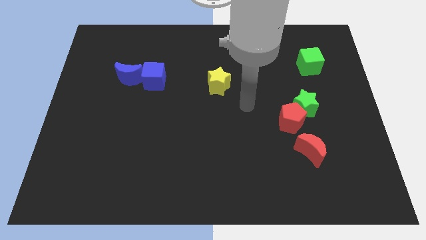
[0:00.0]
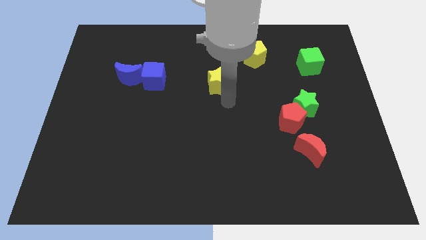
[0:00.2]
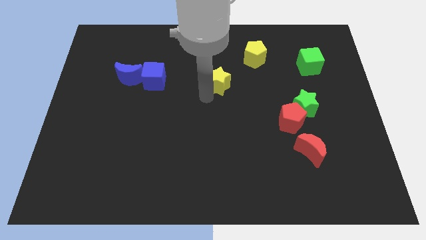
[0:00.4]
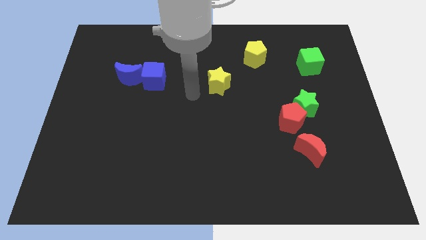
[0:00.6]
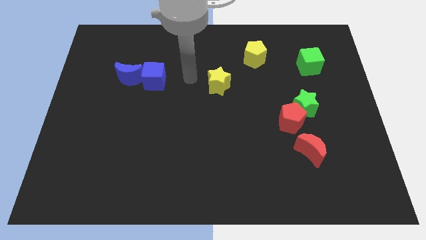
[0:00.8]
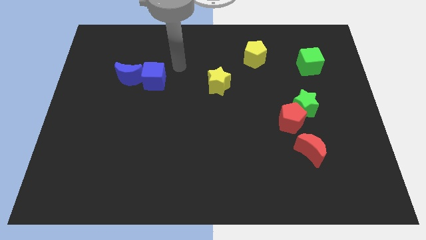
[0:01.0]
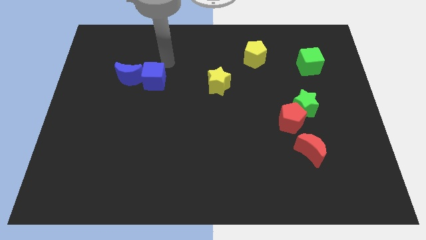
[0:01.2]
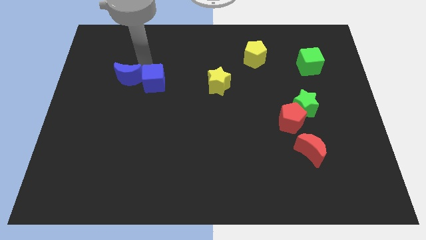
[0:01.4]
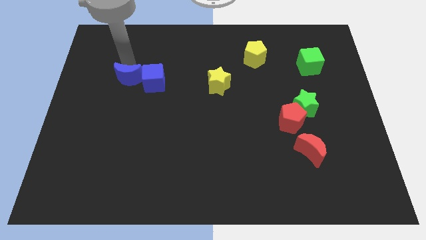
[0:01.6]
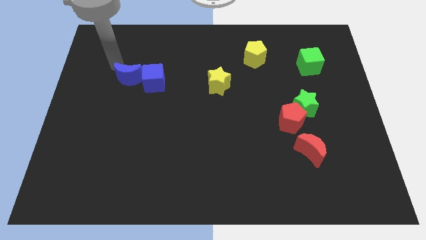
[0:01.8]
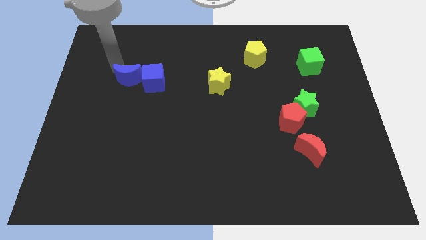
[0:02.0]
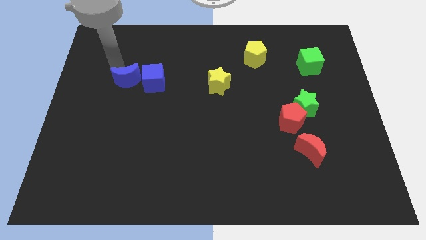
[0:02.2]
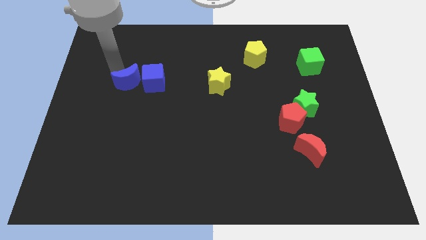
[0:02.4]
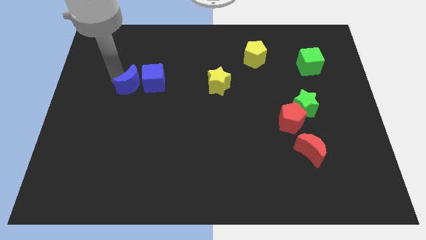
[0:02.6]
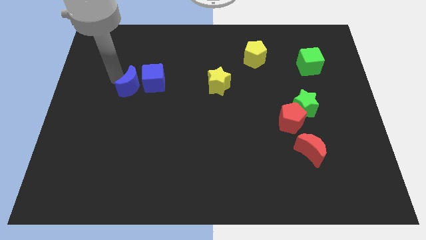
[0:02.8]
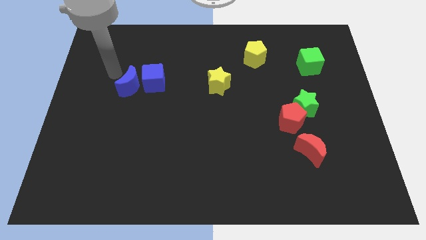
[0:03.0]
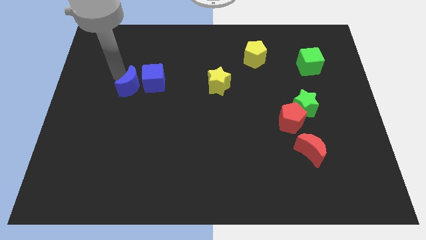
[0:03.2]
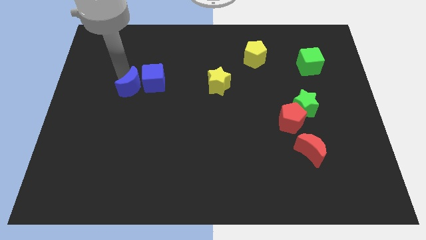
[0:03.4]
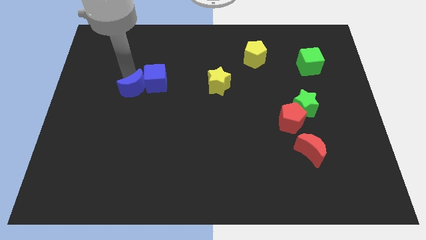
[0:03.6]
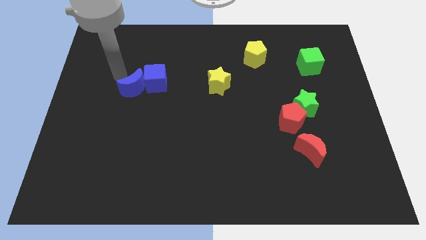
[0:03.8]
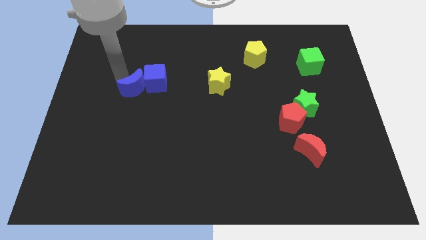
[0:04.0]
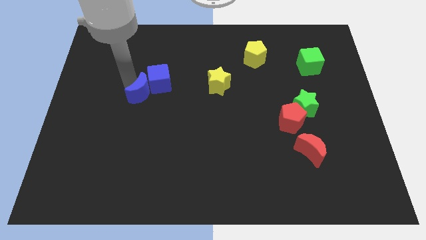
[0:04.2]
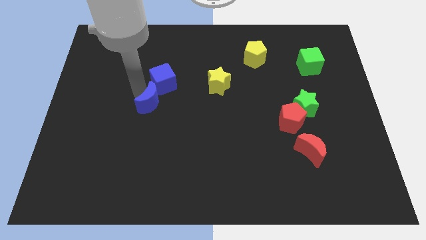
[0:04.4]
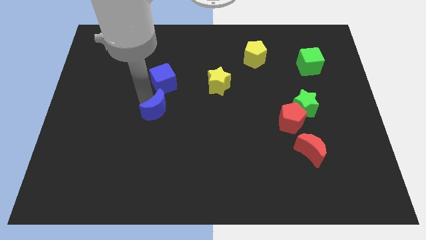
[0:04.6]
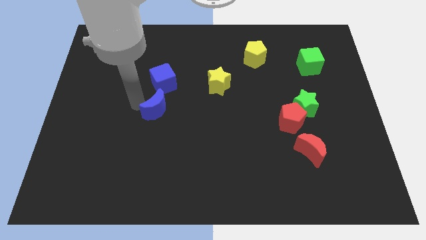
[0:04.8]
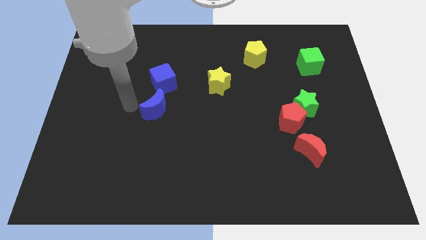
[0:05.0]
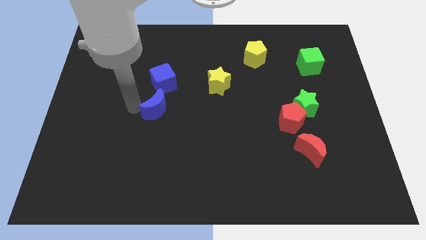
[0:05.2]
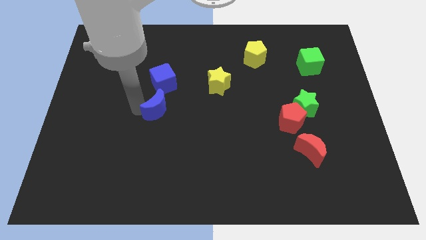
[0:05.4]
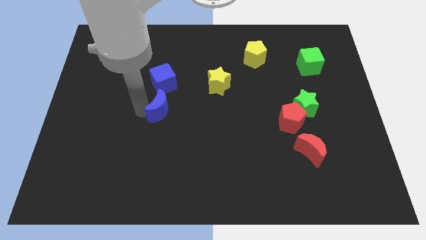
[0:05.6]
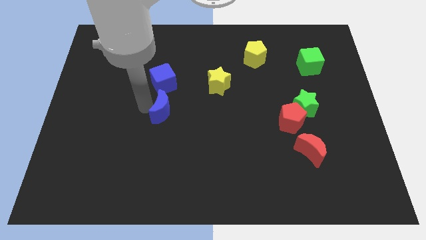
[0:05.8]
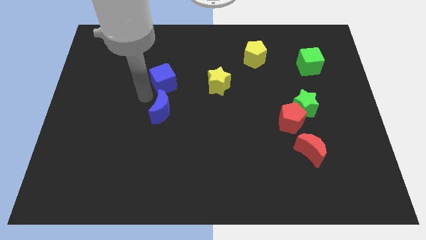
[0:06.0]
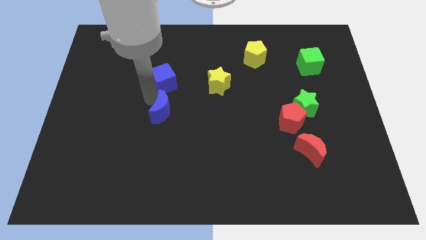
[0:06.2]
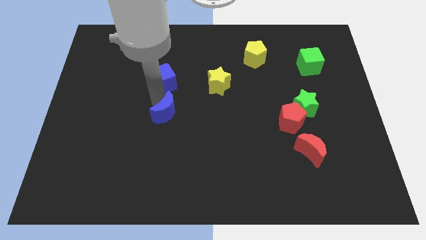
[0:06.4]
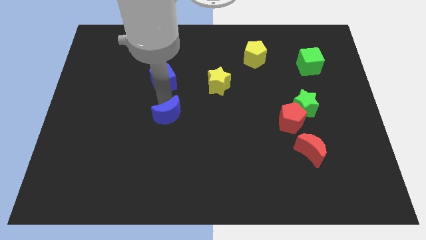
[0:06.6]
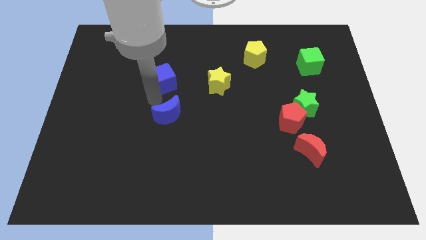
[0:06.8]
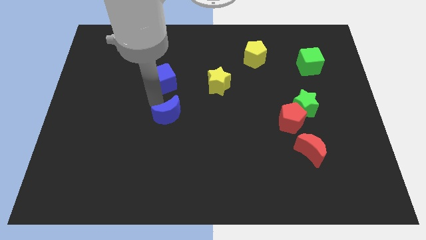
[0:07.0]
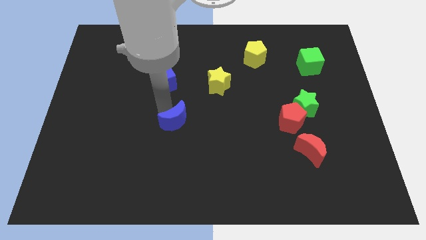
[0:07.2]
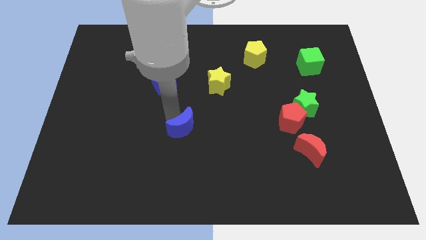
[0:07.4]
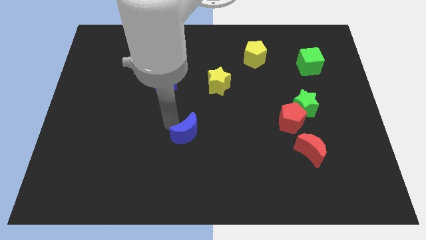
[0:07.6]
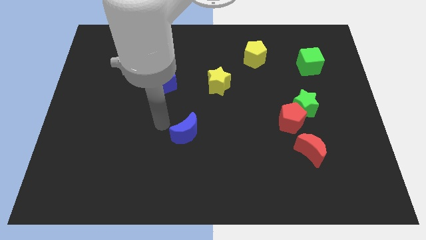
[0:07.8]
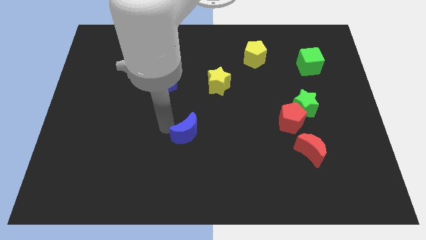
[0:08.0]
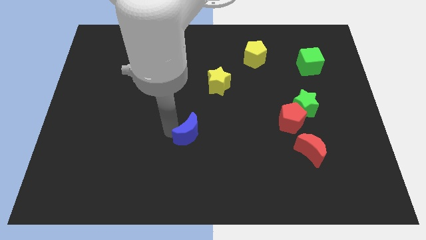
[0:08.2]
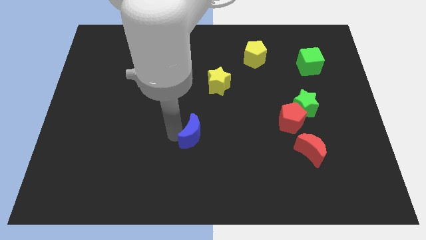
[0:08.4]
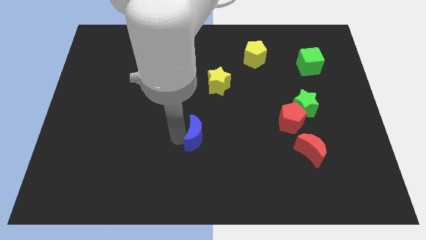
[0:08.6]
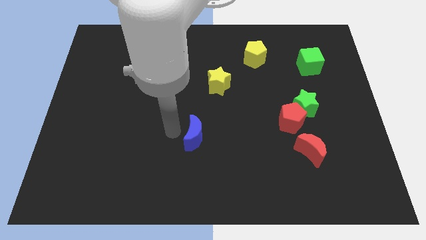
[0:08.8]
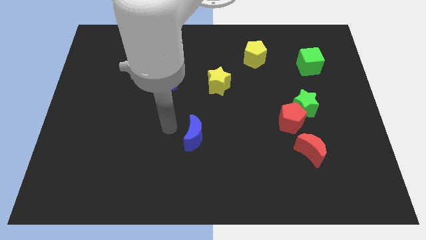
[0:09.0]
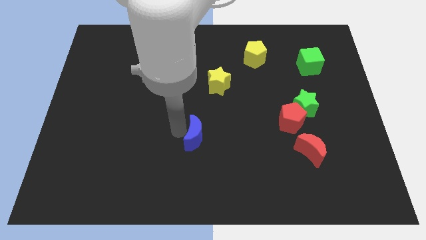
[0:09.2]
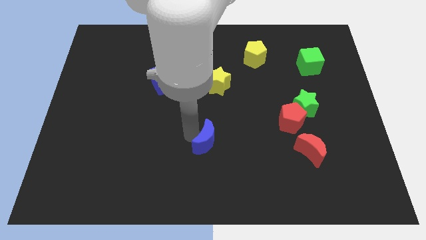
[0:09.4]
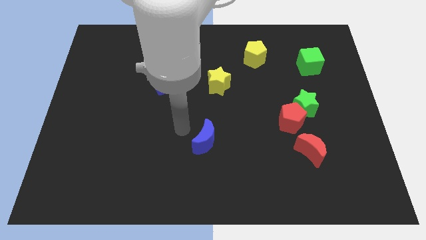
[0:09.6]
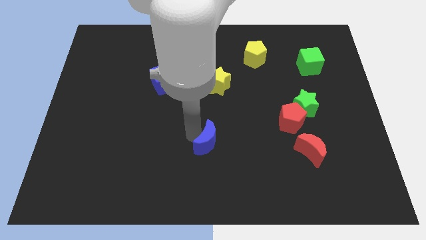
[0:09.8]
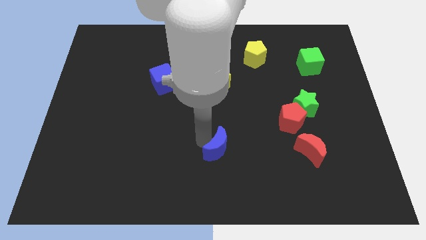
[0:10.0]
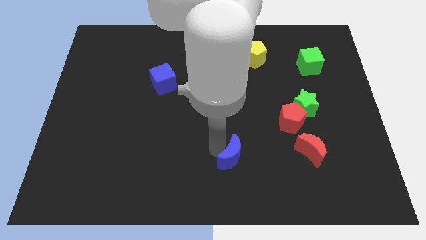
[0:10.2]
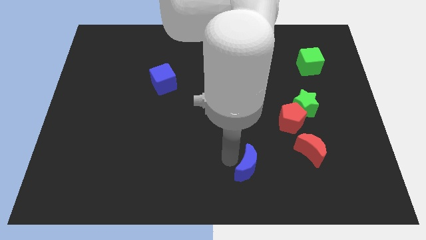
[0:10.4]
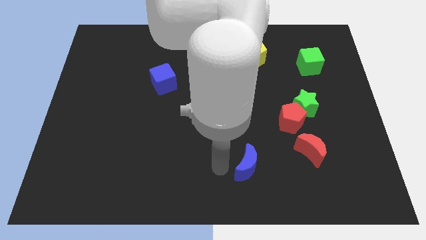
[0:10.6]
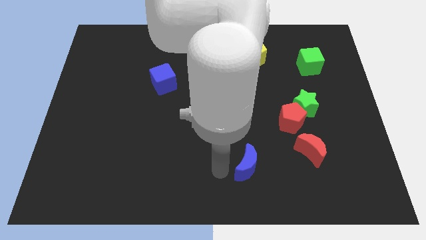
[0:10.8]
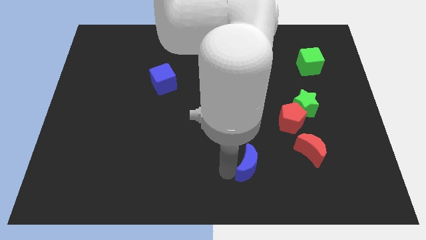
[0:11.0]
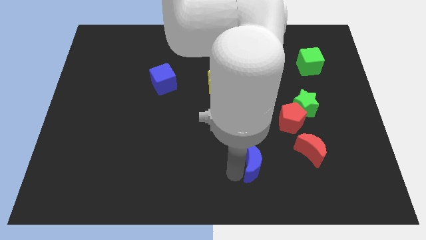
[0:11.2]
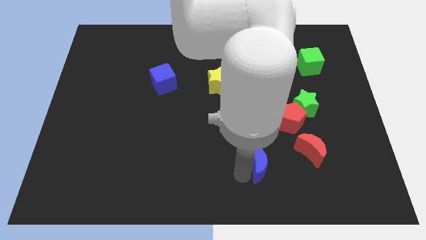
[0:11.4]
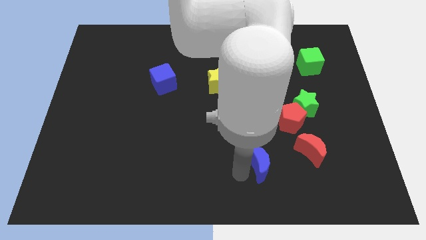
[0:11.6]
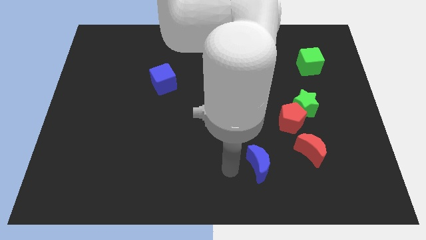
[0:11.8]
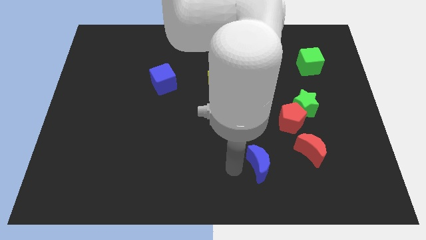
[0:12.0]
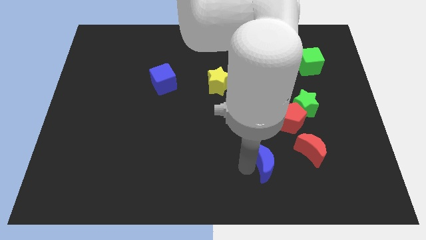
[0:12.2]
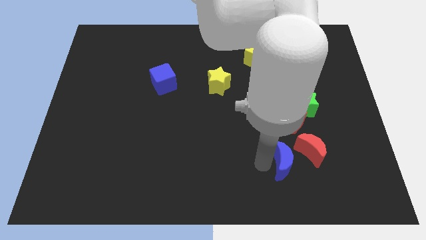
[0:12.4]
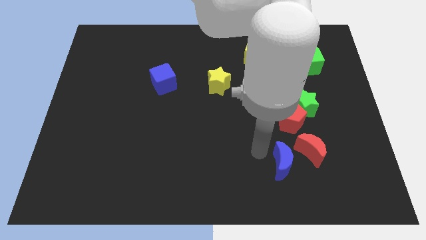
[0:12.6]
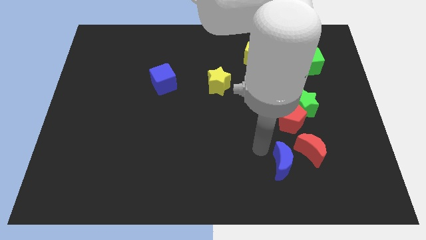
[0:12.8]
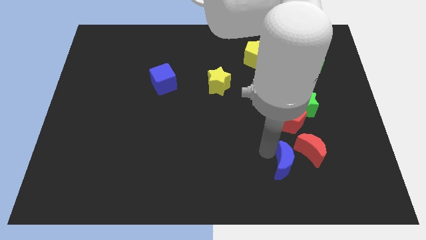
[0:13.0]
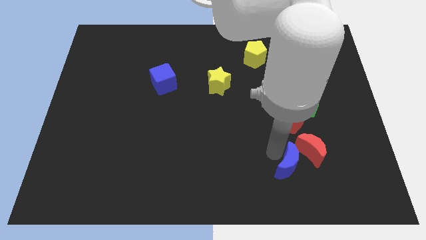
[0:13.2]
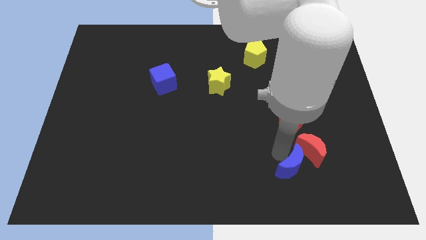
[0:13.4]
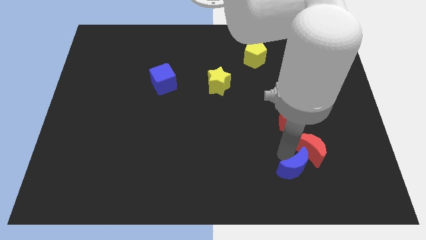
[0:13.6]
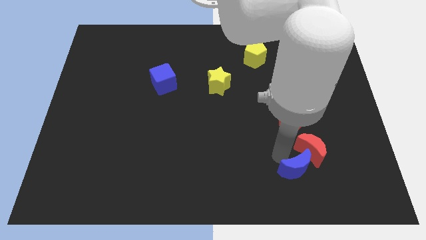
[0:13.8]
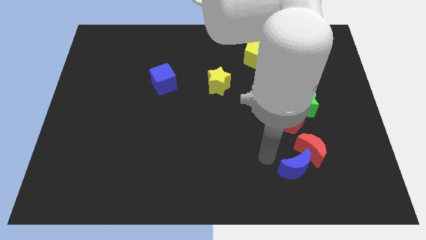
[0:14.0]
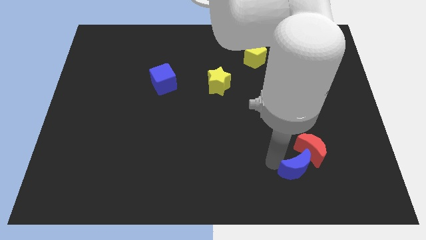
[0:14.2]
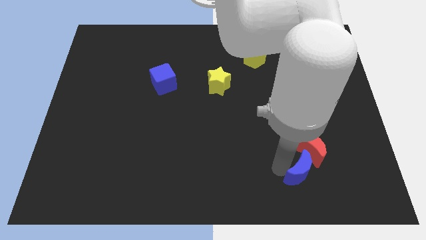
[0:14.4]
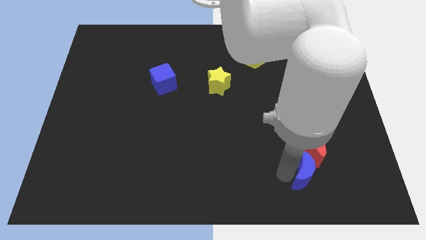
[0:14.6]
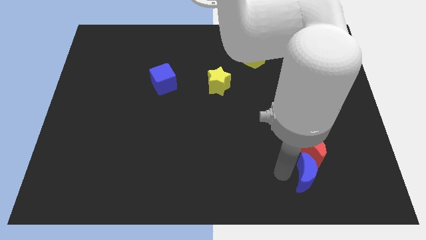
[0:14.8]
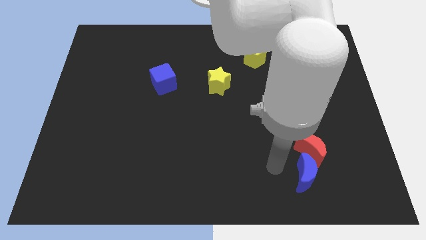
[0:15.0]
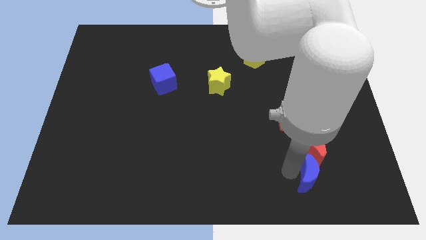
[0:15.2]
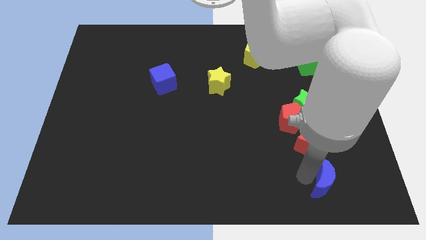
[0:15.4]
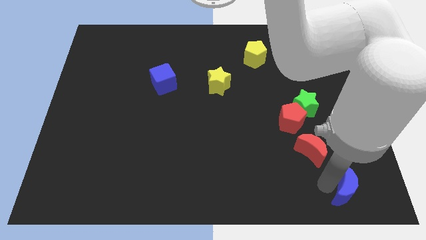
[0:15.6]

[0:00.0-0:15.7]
move the blue moon to the bottom right of the board
